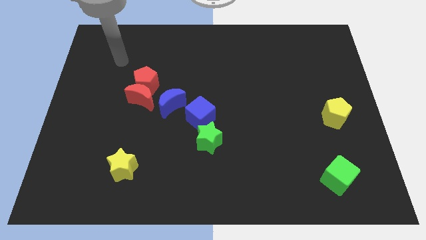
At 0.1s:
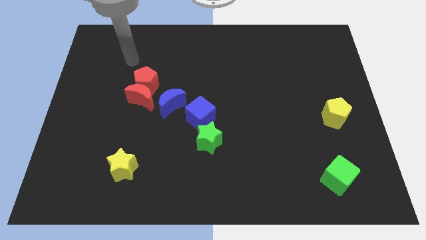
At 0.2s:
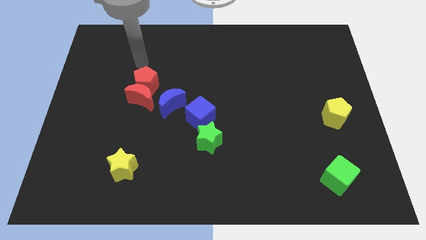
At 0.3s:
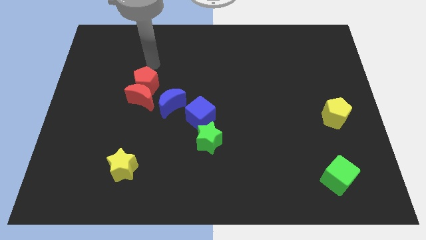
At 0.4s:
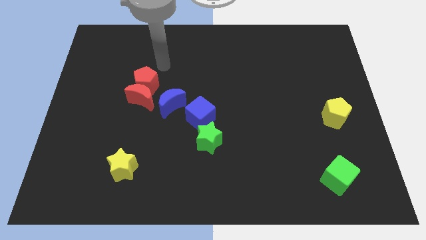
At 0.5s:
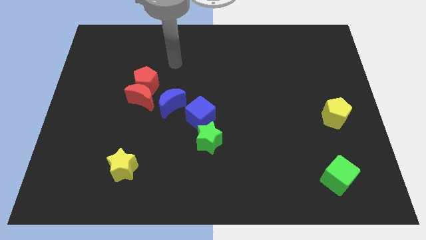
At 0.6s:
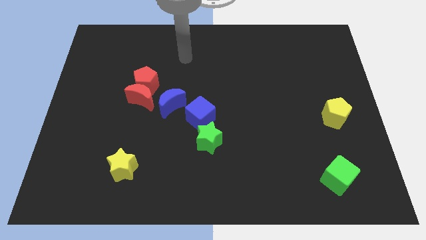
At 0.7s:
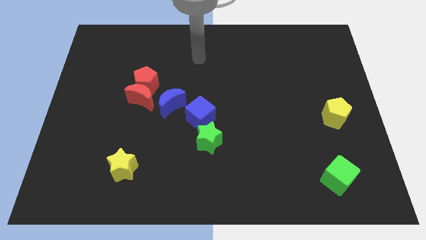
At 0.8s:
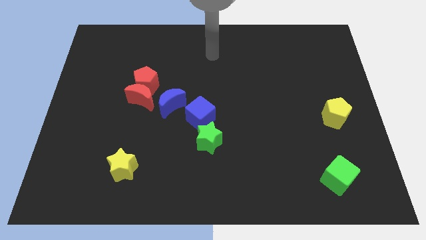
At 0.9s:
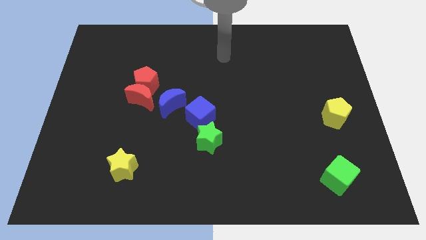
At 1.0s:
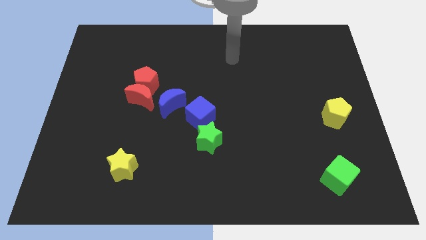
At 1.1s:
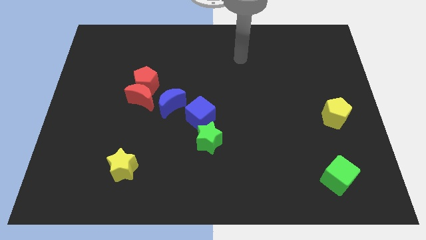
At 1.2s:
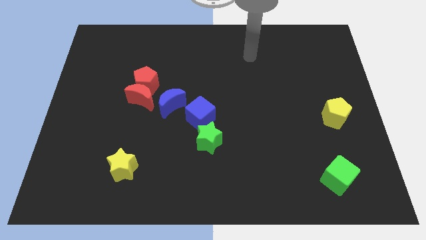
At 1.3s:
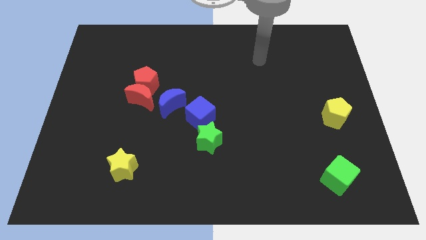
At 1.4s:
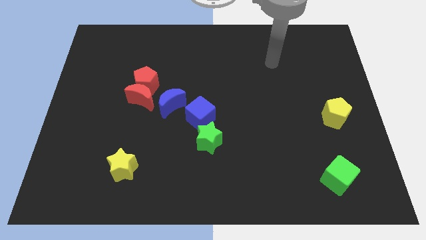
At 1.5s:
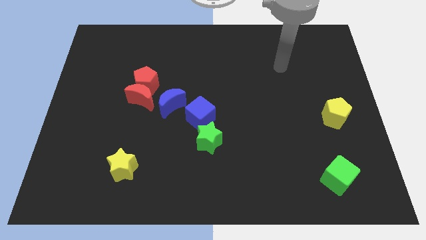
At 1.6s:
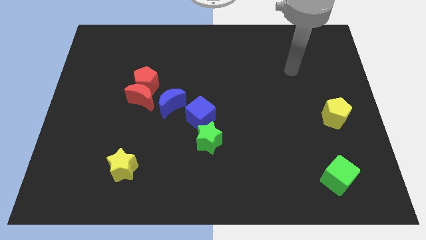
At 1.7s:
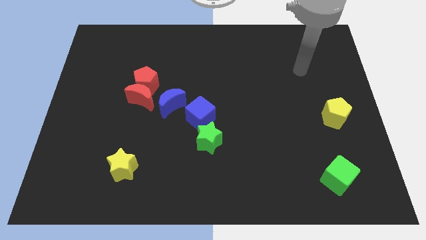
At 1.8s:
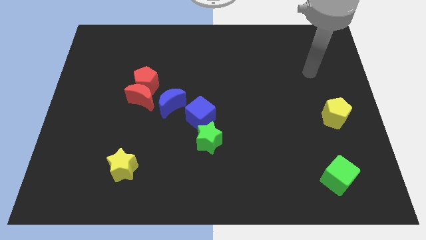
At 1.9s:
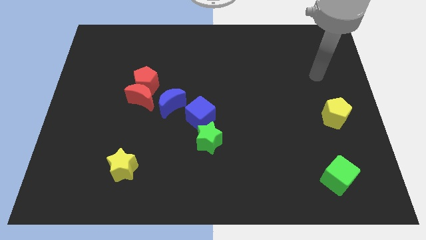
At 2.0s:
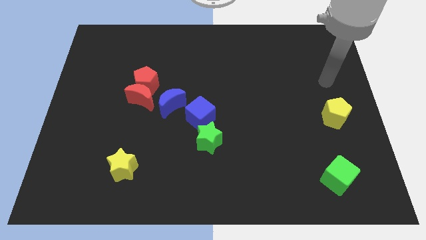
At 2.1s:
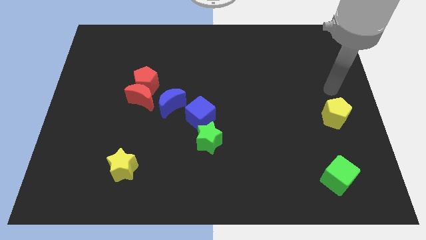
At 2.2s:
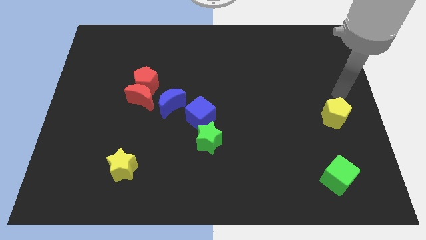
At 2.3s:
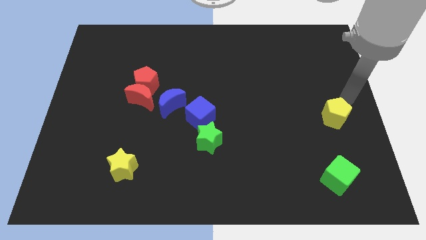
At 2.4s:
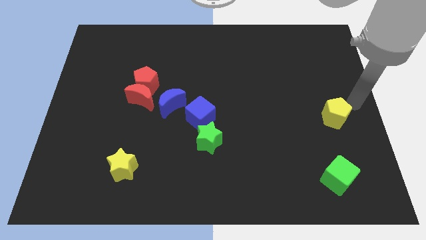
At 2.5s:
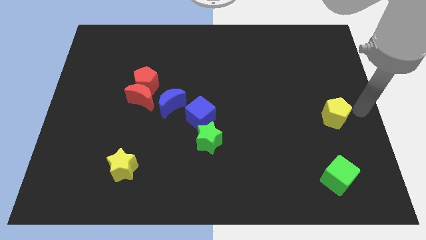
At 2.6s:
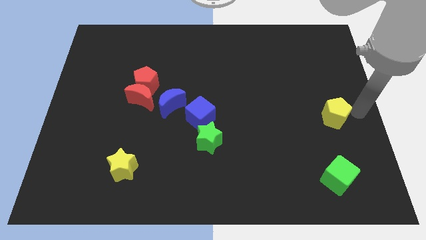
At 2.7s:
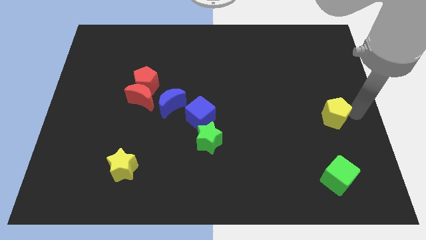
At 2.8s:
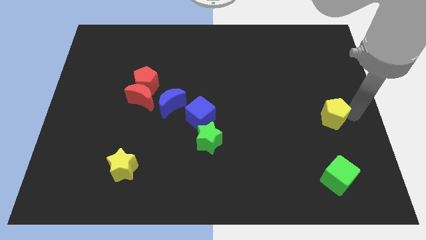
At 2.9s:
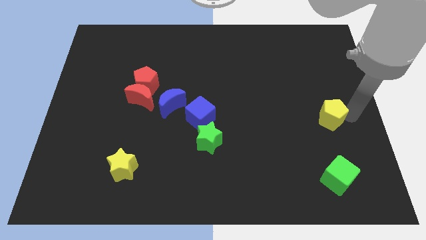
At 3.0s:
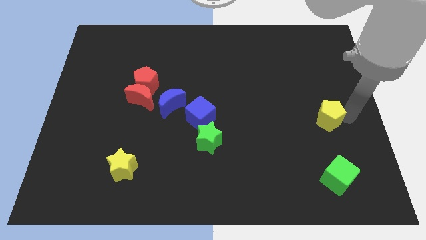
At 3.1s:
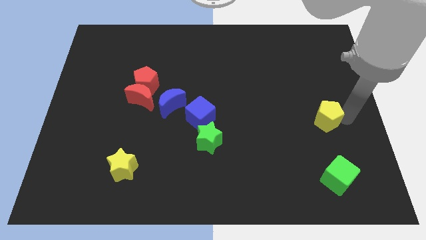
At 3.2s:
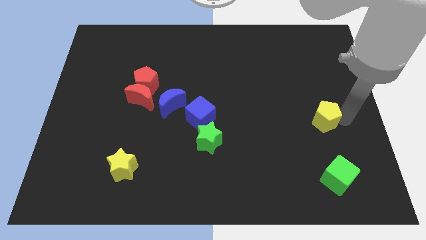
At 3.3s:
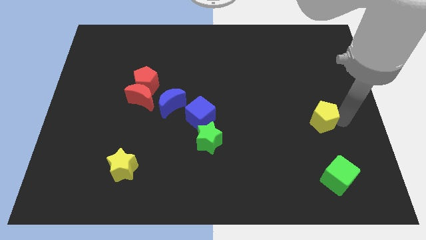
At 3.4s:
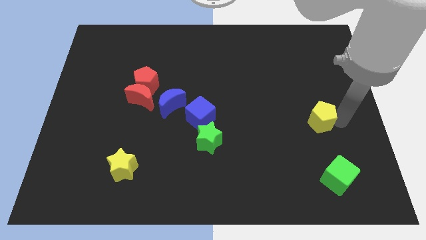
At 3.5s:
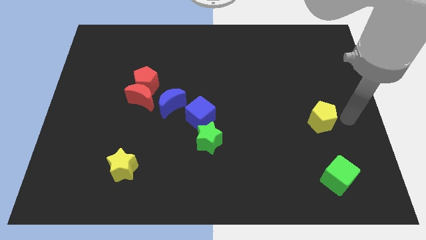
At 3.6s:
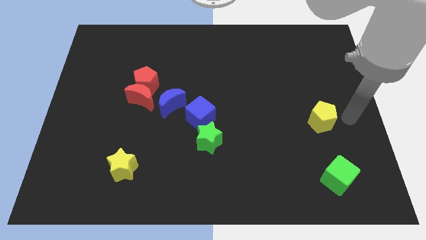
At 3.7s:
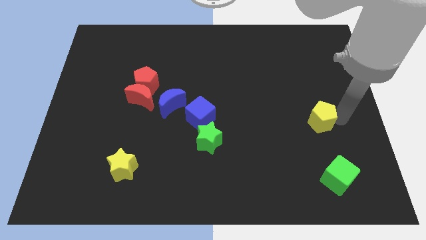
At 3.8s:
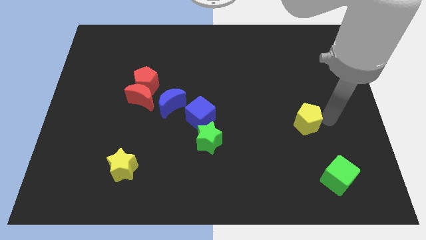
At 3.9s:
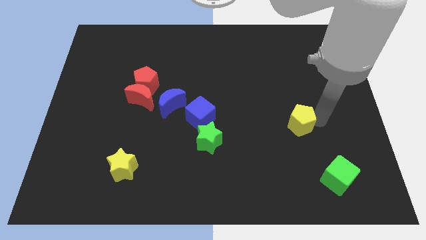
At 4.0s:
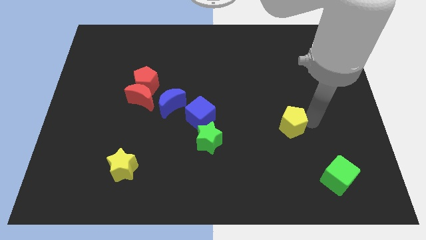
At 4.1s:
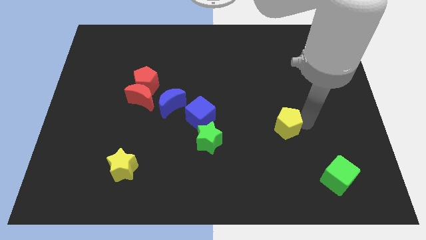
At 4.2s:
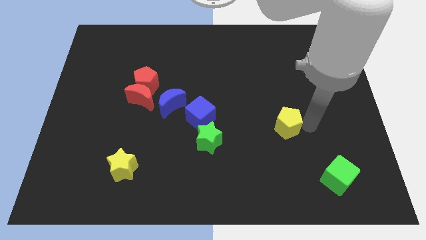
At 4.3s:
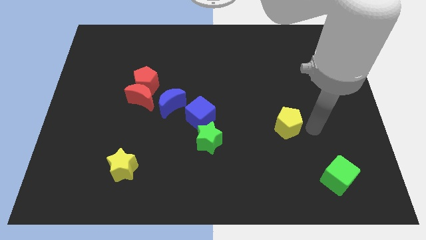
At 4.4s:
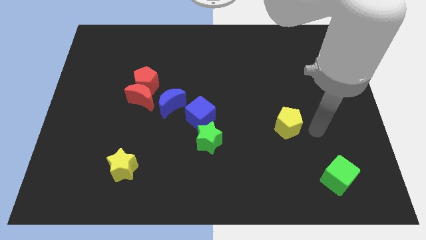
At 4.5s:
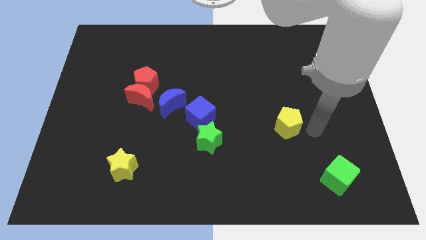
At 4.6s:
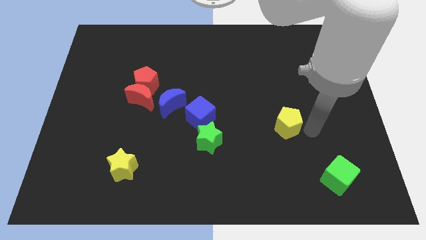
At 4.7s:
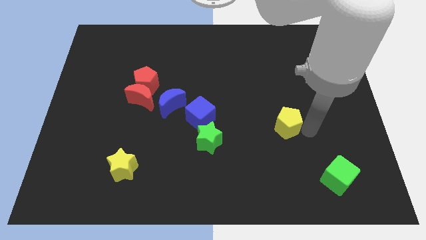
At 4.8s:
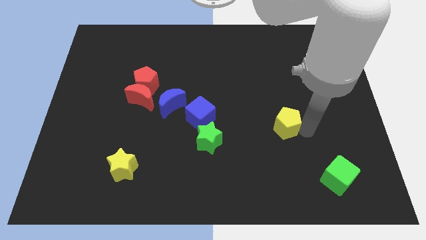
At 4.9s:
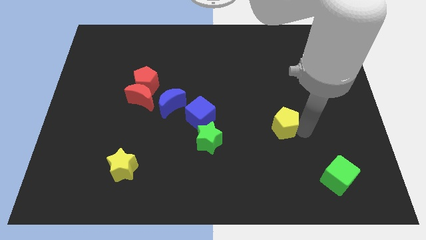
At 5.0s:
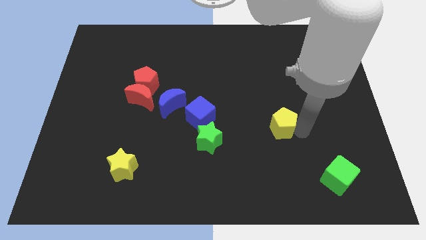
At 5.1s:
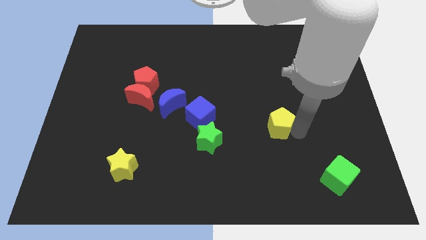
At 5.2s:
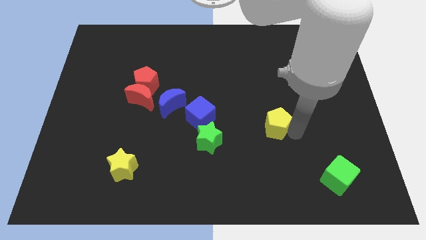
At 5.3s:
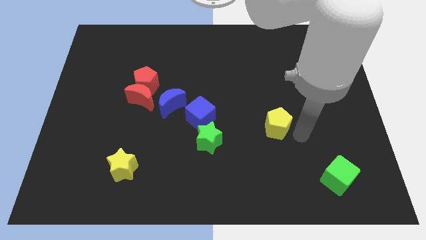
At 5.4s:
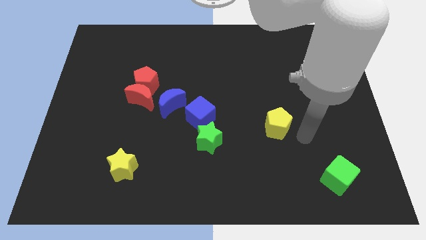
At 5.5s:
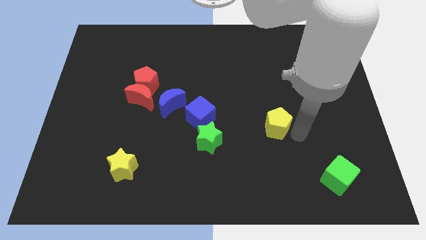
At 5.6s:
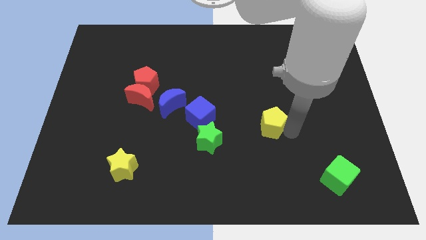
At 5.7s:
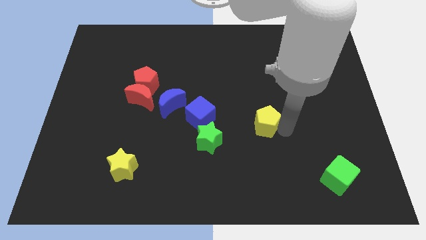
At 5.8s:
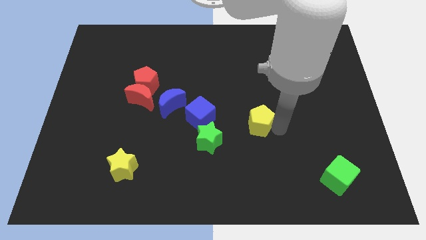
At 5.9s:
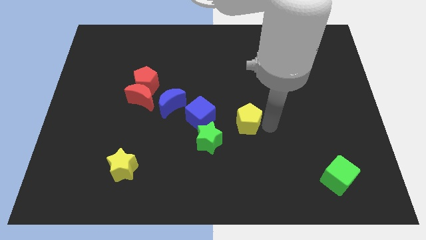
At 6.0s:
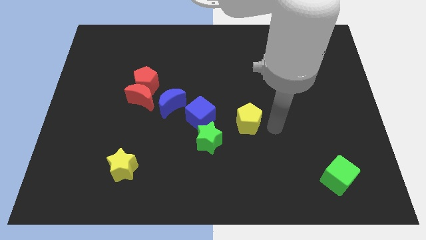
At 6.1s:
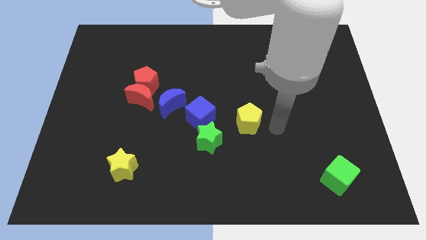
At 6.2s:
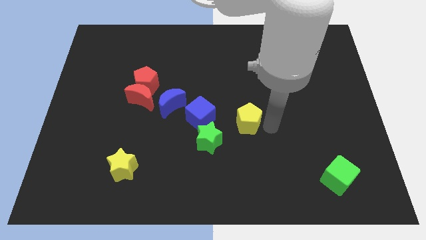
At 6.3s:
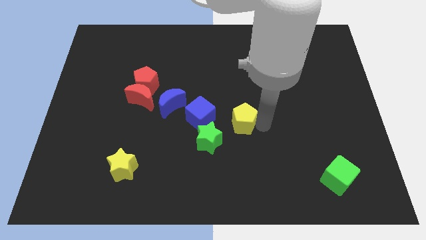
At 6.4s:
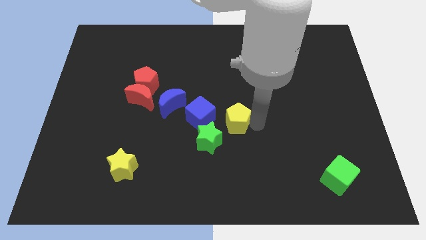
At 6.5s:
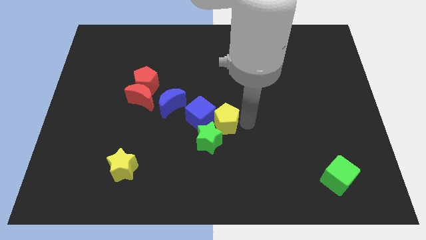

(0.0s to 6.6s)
push the yellow pentagon next to the blue cube

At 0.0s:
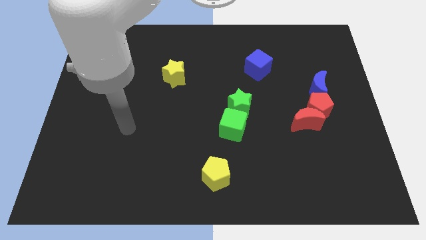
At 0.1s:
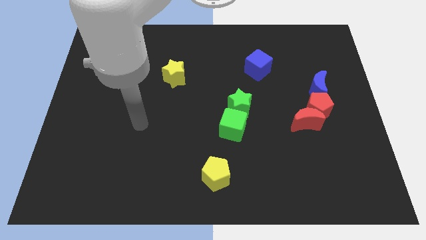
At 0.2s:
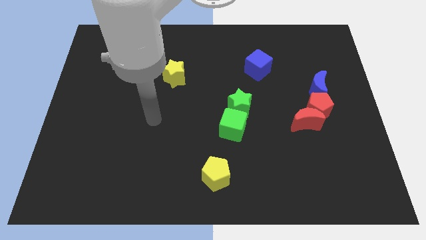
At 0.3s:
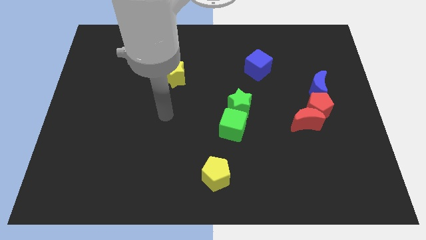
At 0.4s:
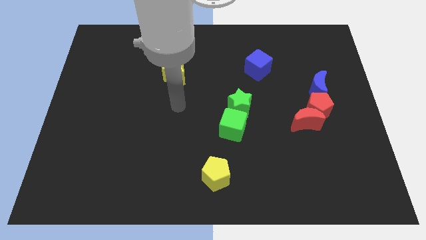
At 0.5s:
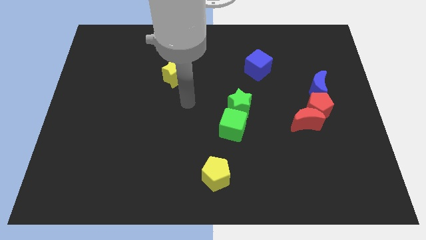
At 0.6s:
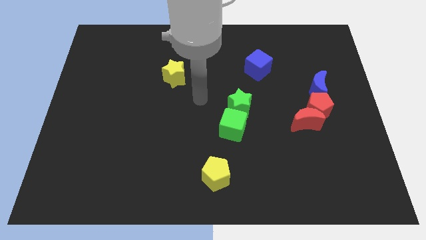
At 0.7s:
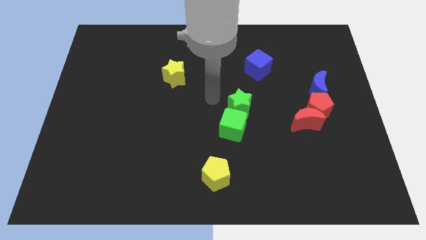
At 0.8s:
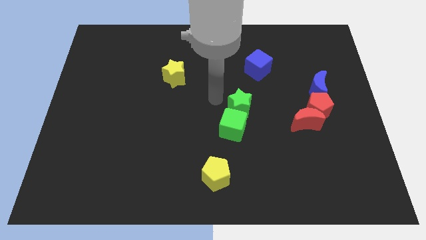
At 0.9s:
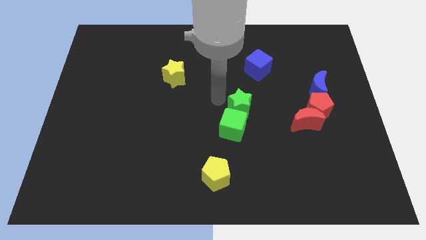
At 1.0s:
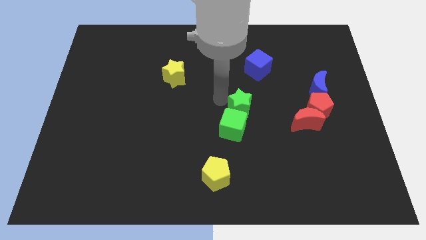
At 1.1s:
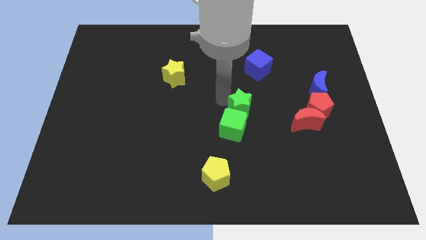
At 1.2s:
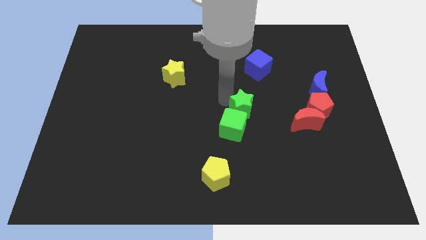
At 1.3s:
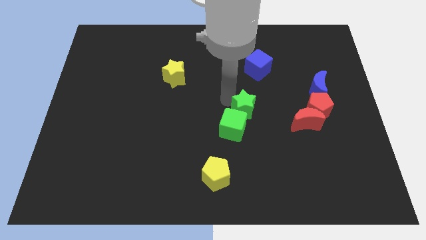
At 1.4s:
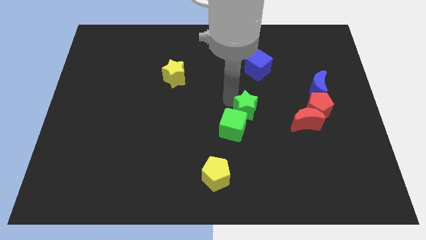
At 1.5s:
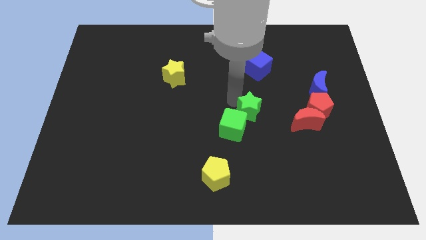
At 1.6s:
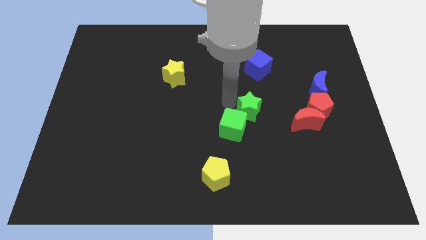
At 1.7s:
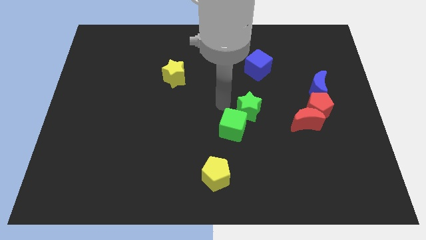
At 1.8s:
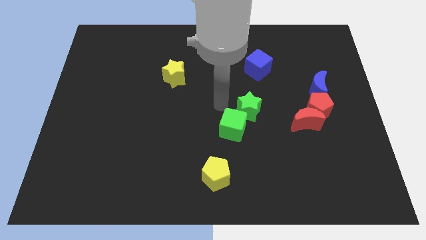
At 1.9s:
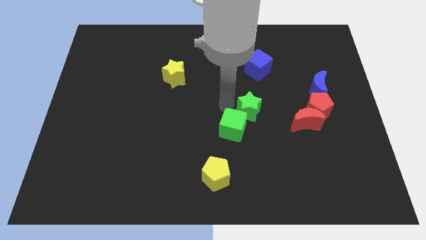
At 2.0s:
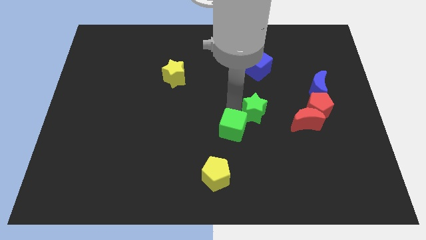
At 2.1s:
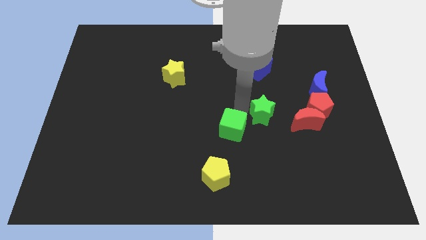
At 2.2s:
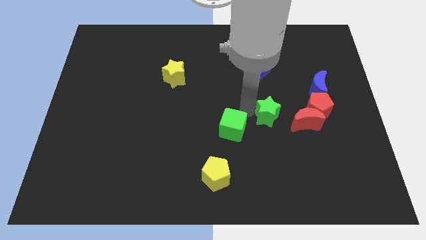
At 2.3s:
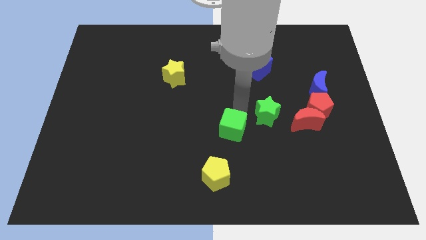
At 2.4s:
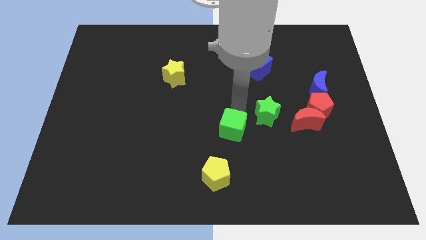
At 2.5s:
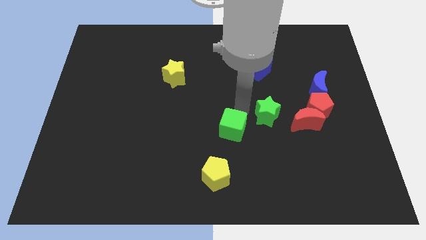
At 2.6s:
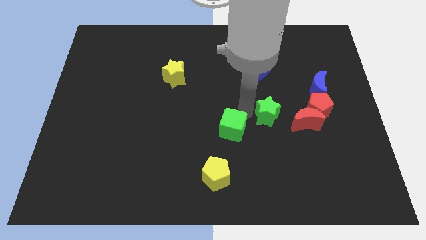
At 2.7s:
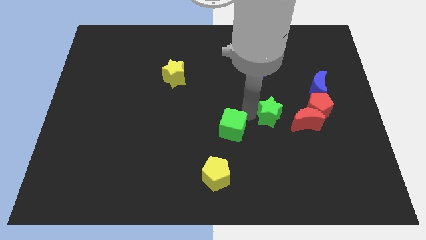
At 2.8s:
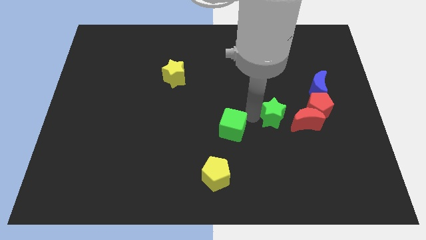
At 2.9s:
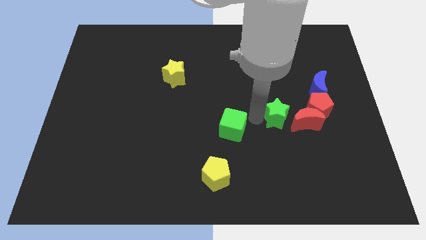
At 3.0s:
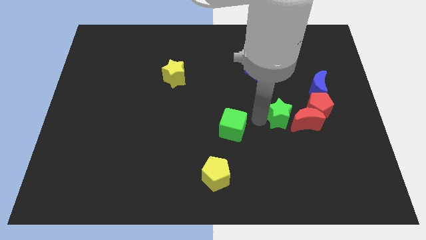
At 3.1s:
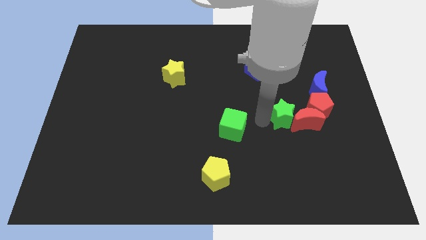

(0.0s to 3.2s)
move the green star close to the red moon
